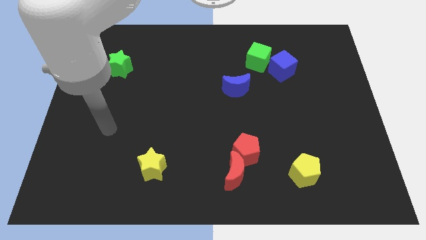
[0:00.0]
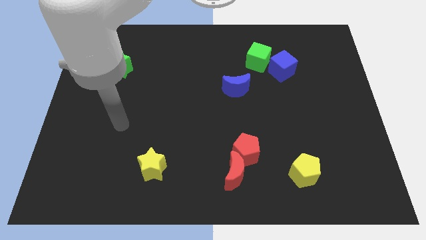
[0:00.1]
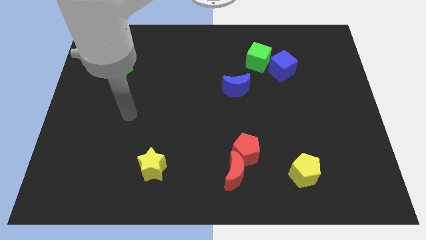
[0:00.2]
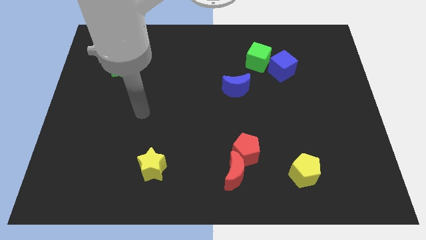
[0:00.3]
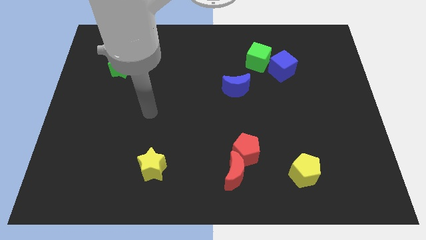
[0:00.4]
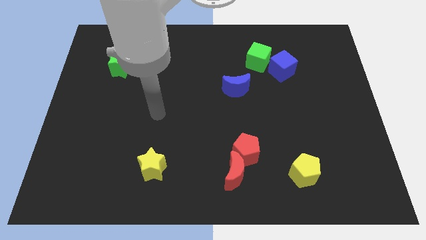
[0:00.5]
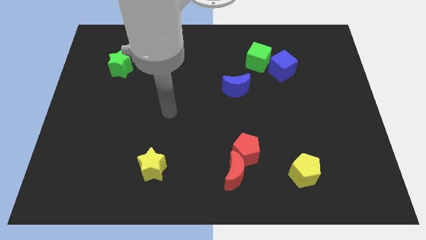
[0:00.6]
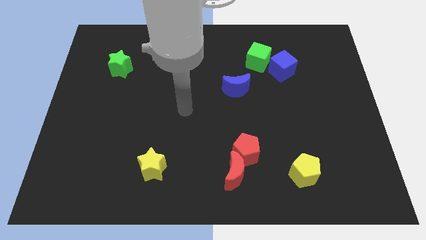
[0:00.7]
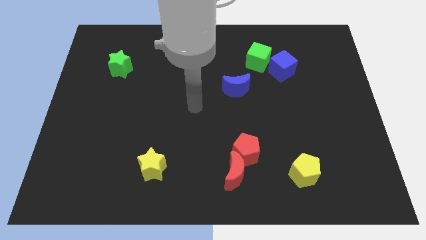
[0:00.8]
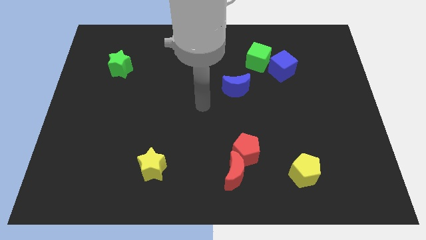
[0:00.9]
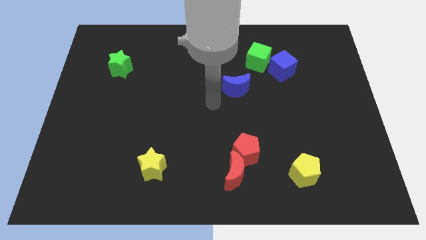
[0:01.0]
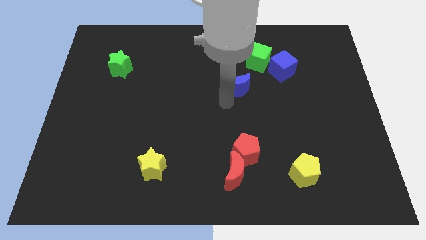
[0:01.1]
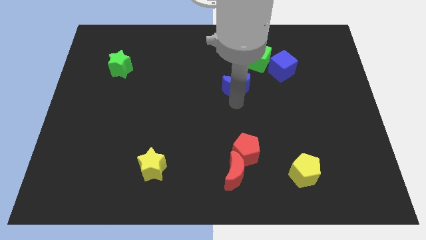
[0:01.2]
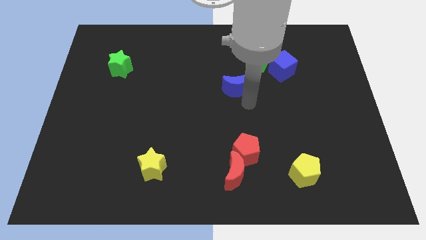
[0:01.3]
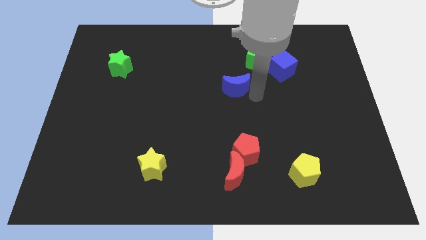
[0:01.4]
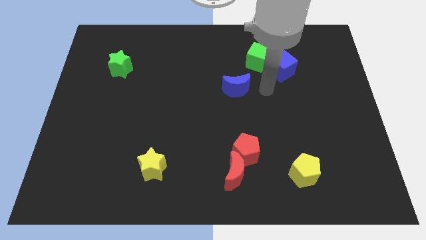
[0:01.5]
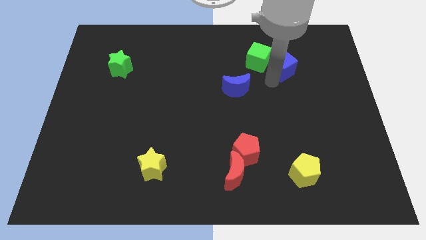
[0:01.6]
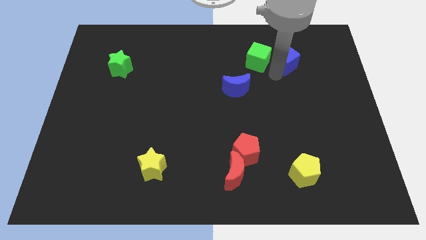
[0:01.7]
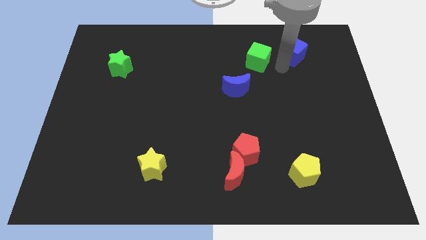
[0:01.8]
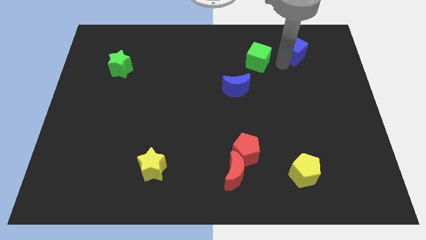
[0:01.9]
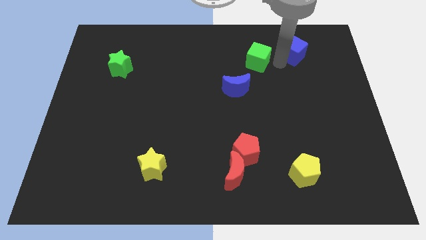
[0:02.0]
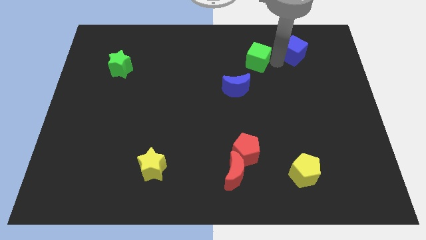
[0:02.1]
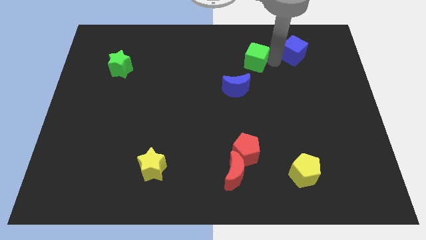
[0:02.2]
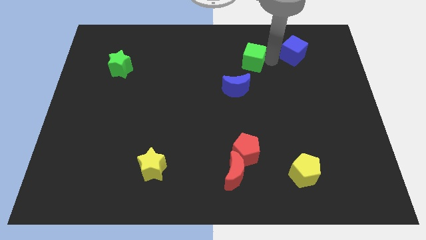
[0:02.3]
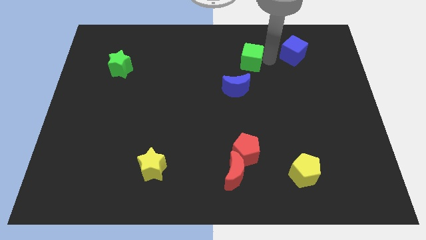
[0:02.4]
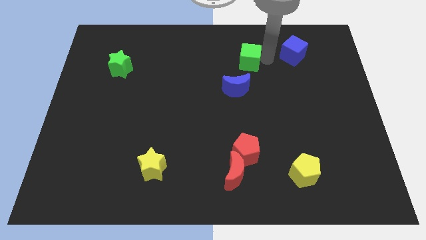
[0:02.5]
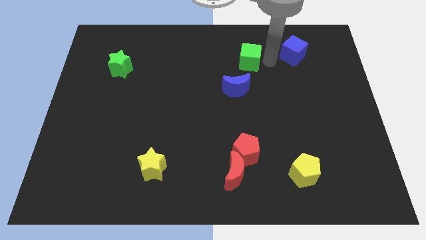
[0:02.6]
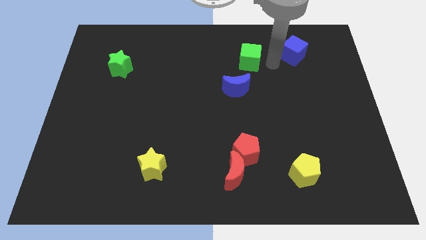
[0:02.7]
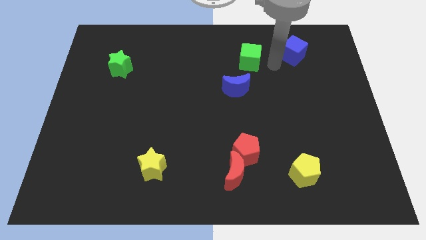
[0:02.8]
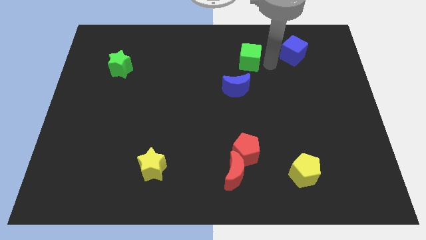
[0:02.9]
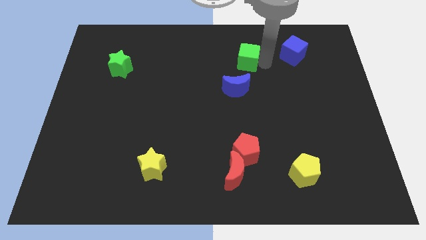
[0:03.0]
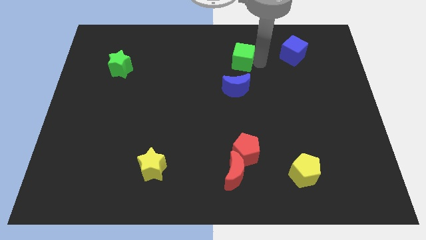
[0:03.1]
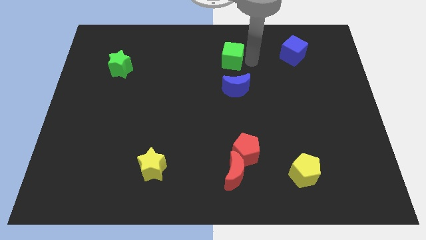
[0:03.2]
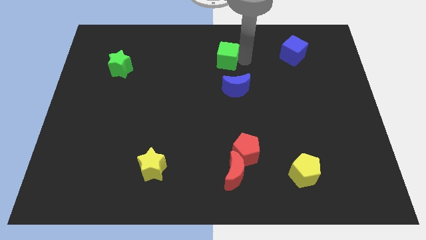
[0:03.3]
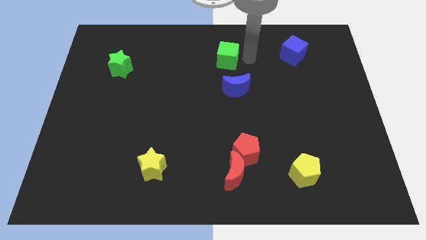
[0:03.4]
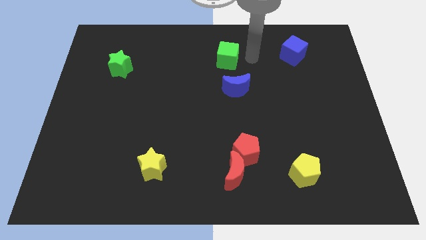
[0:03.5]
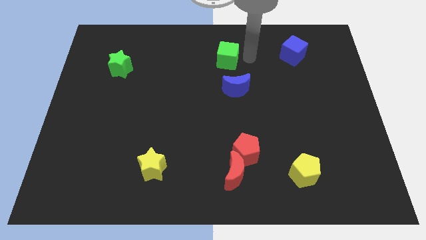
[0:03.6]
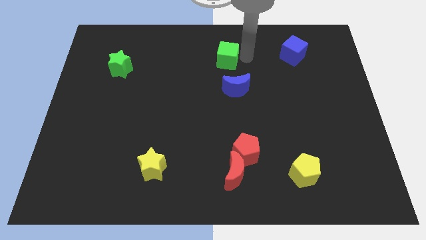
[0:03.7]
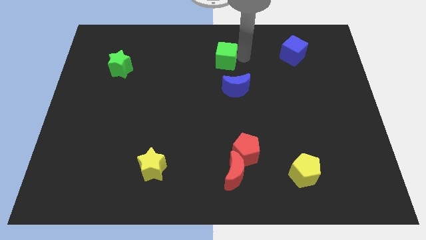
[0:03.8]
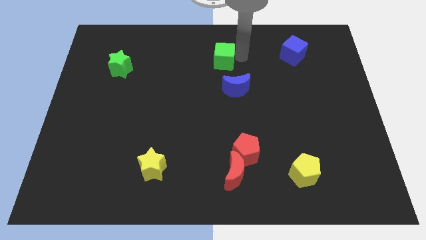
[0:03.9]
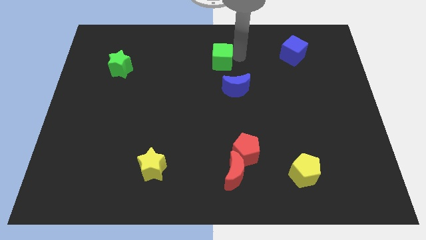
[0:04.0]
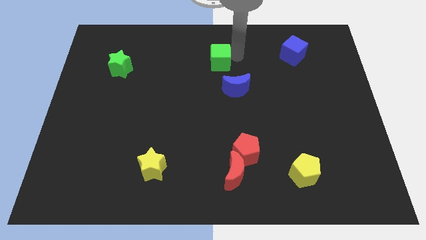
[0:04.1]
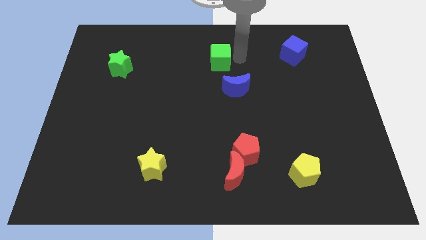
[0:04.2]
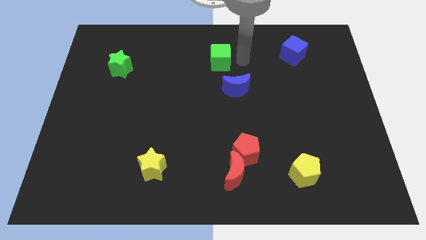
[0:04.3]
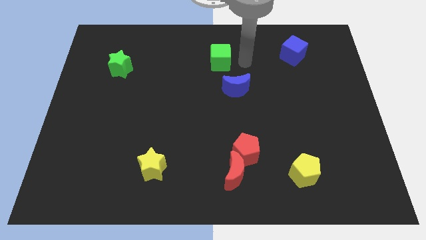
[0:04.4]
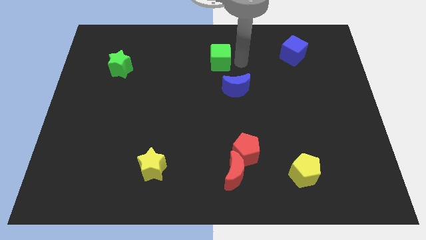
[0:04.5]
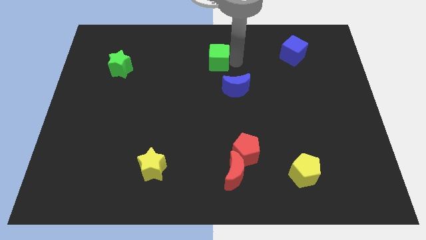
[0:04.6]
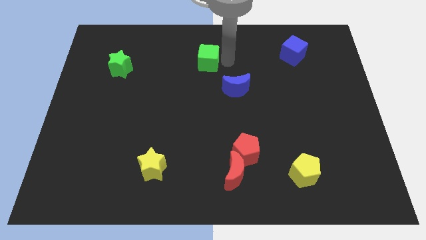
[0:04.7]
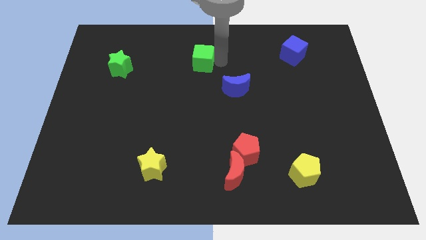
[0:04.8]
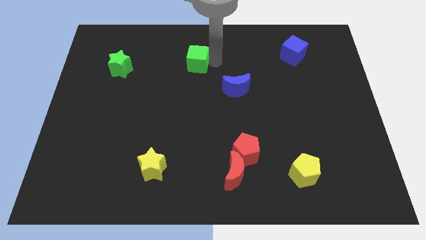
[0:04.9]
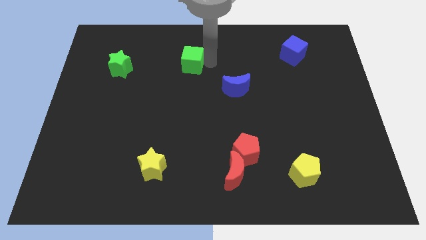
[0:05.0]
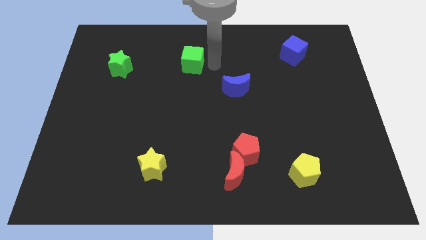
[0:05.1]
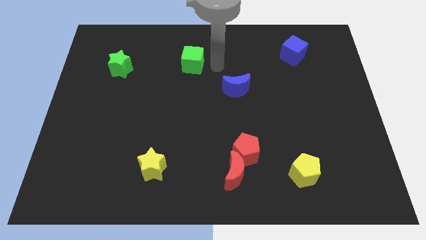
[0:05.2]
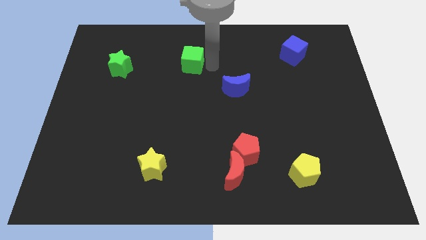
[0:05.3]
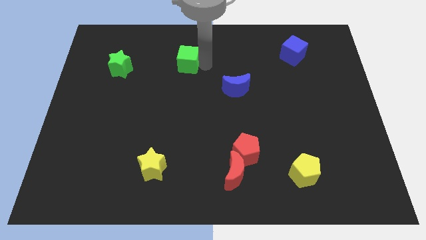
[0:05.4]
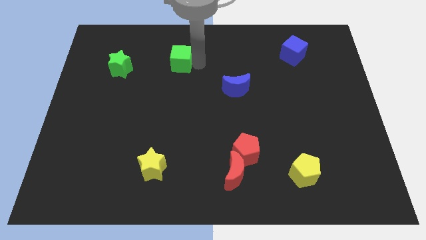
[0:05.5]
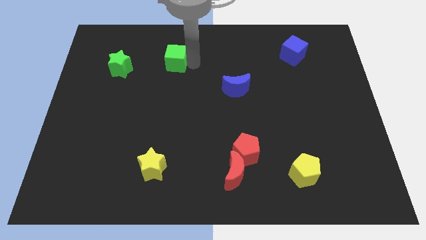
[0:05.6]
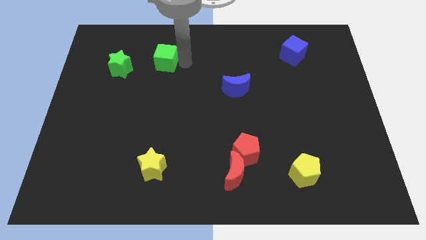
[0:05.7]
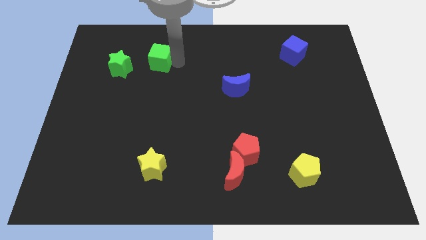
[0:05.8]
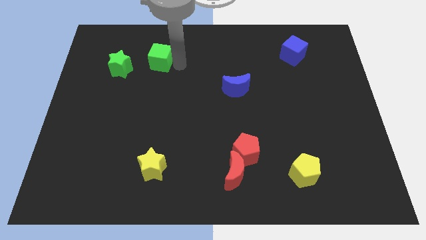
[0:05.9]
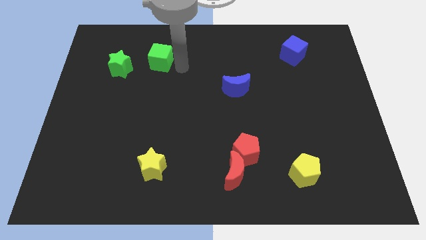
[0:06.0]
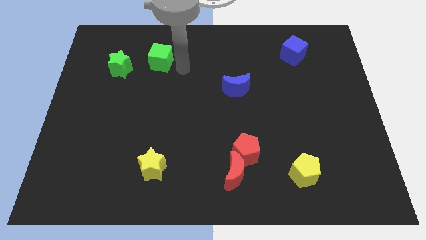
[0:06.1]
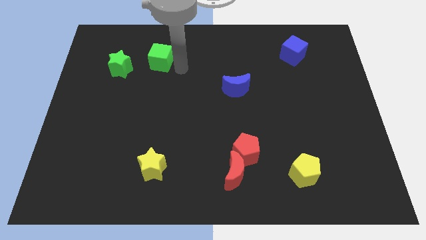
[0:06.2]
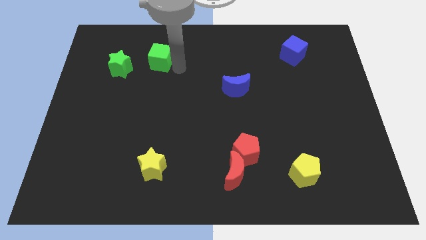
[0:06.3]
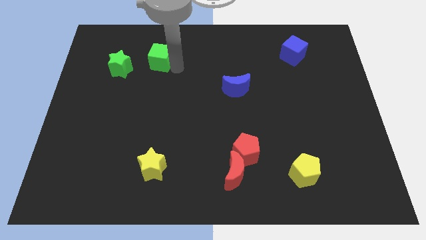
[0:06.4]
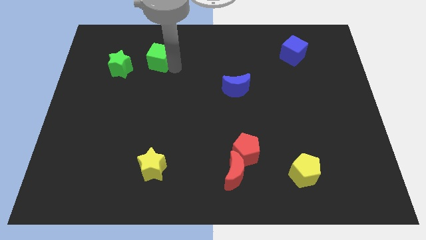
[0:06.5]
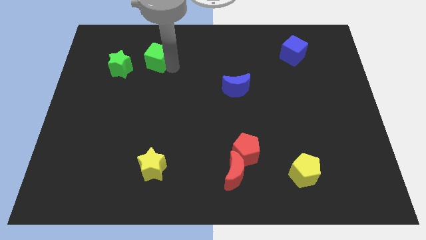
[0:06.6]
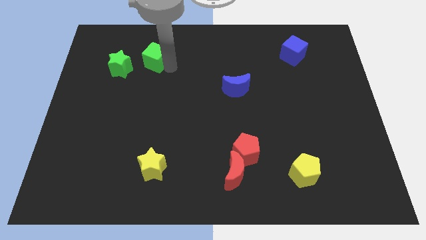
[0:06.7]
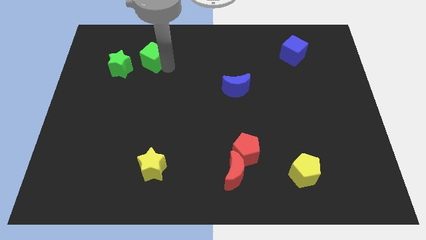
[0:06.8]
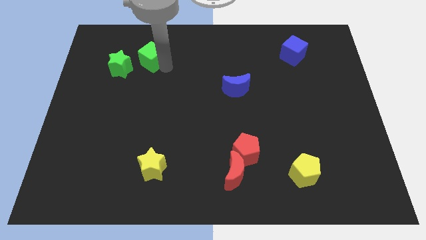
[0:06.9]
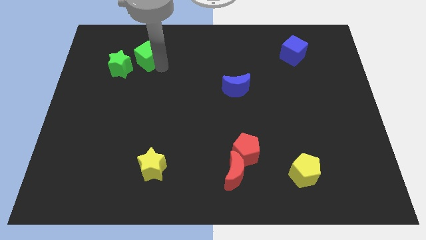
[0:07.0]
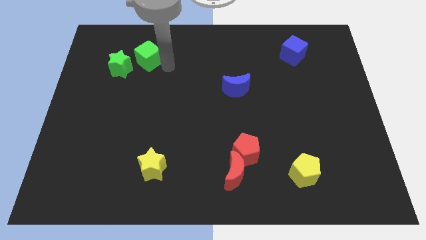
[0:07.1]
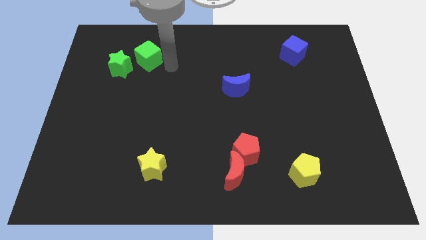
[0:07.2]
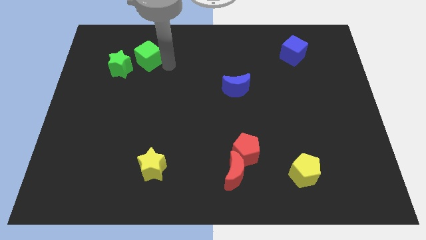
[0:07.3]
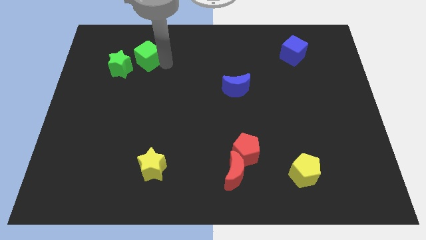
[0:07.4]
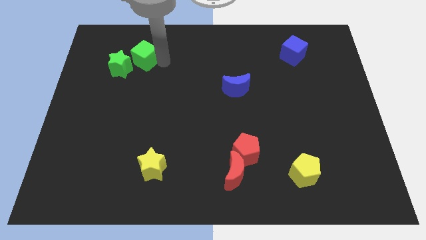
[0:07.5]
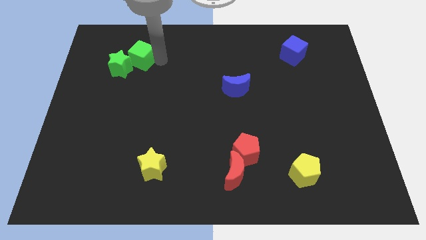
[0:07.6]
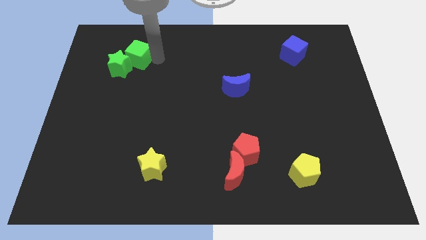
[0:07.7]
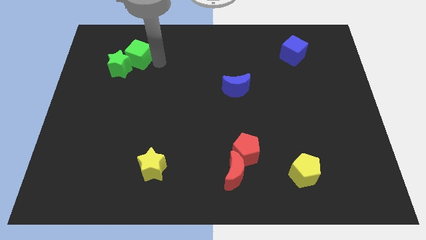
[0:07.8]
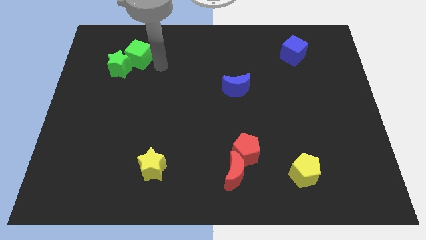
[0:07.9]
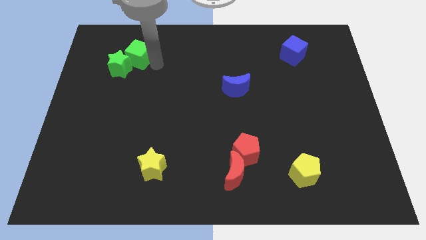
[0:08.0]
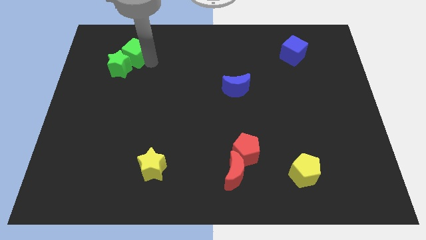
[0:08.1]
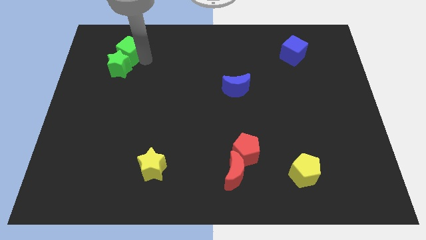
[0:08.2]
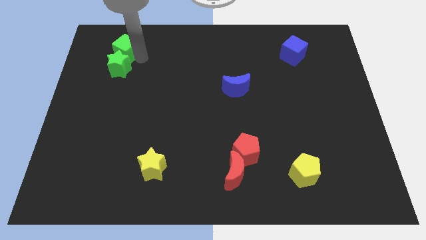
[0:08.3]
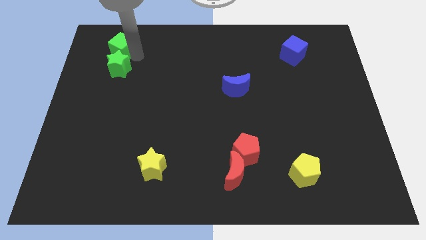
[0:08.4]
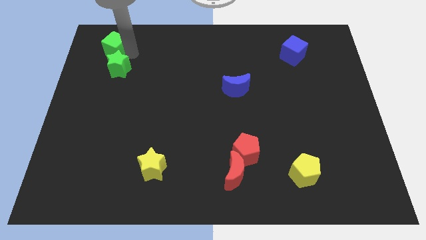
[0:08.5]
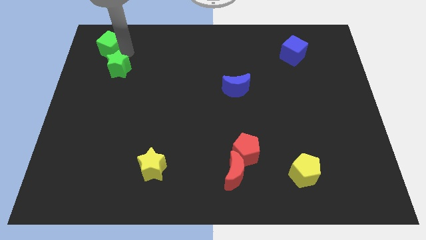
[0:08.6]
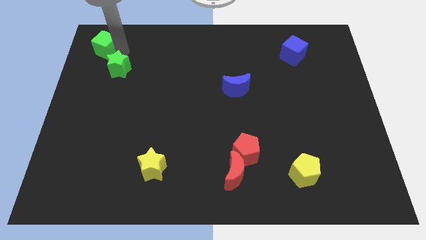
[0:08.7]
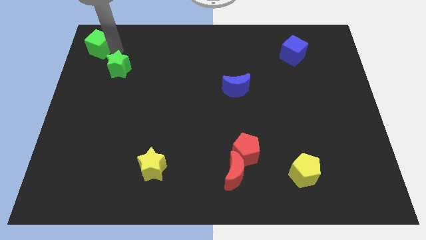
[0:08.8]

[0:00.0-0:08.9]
slide the green cube to the top left
